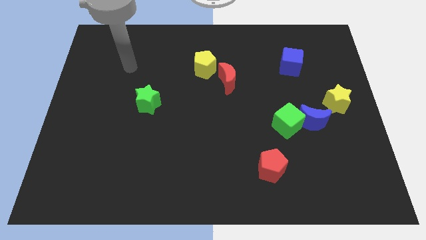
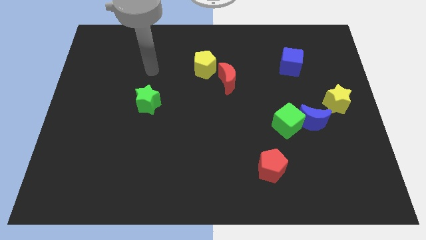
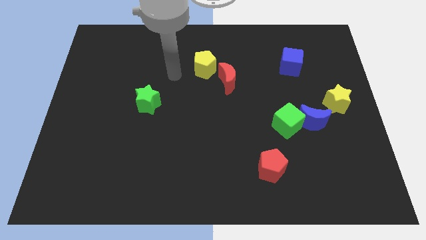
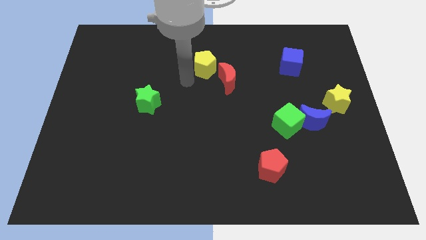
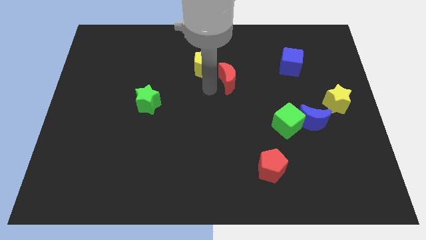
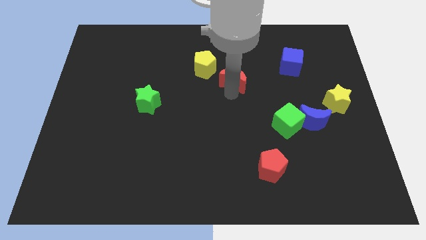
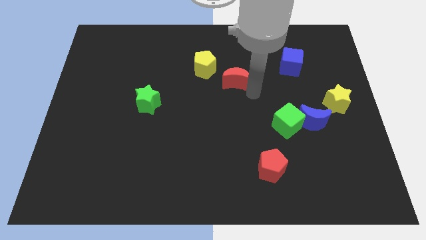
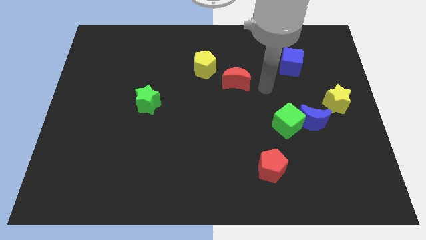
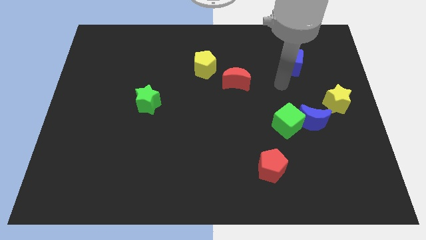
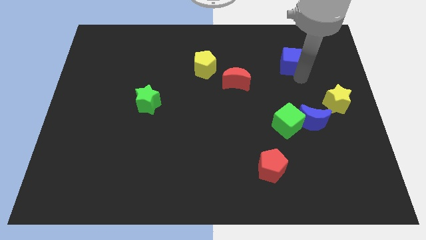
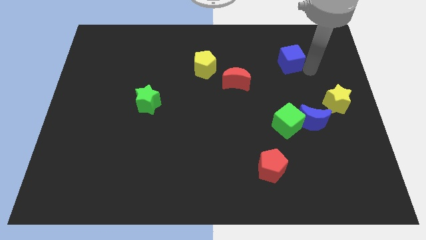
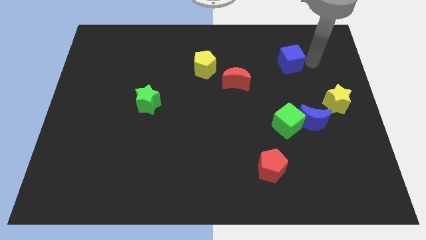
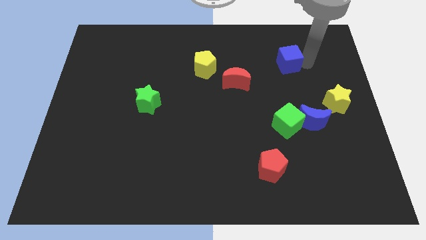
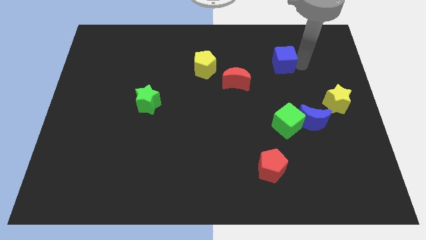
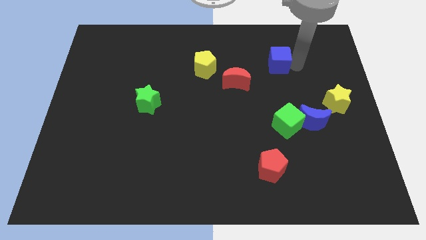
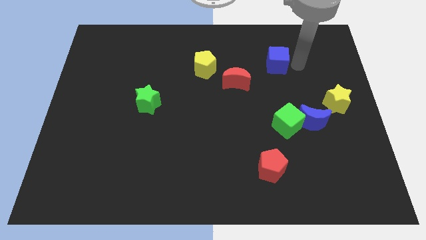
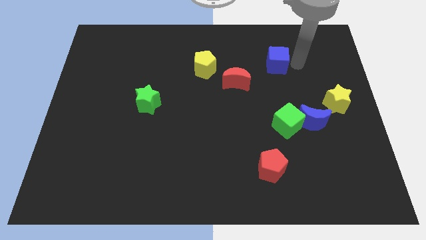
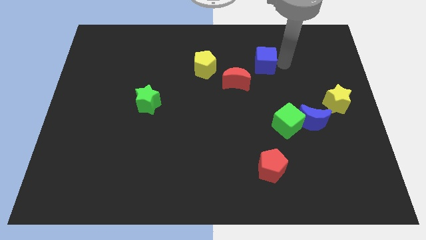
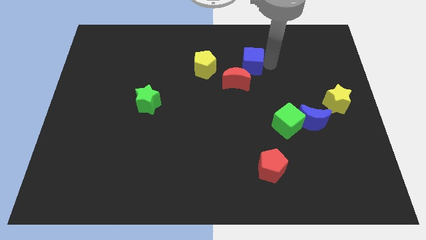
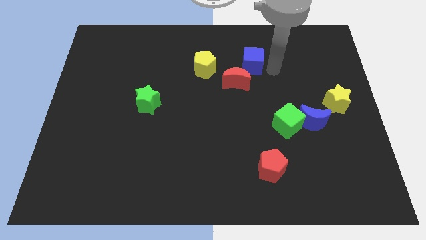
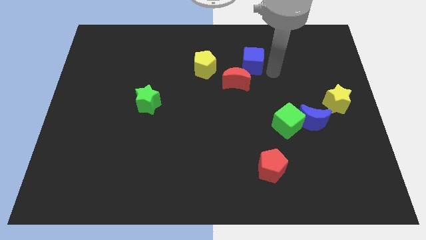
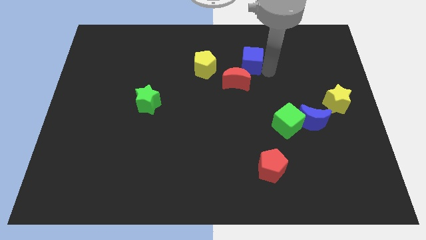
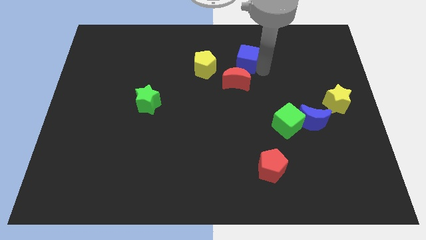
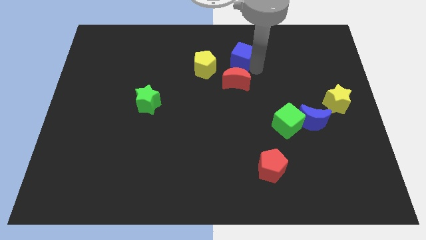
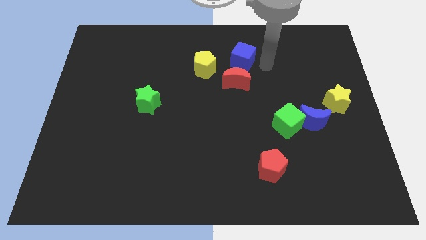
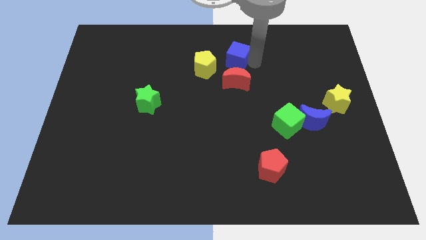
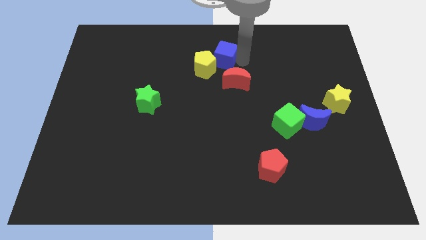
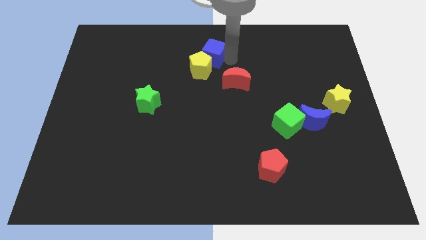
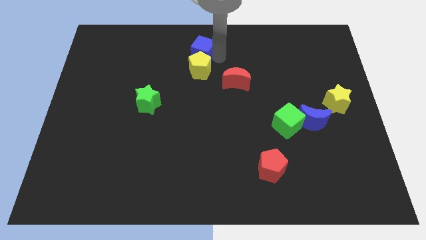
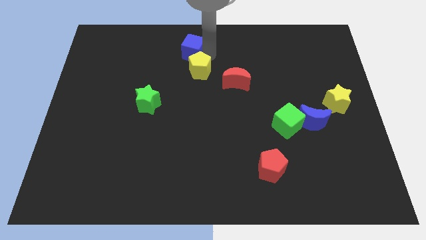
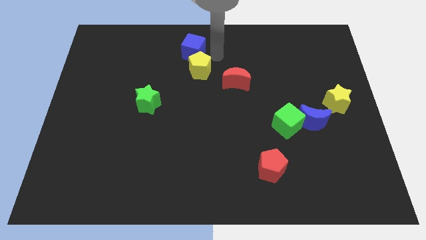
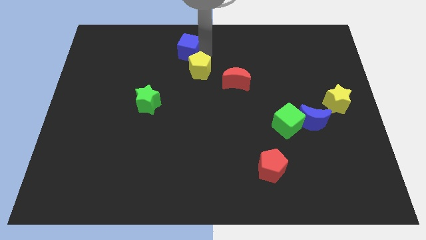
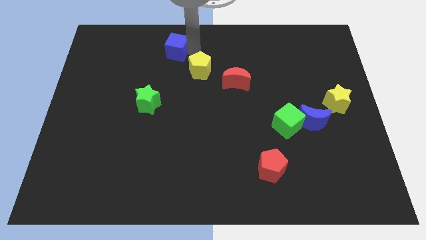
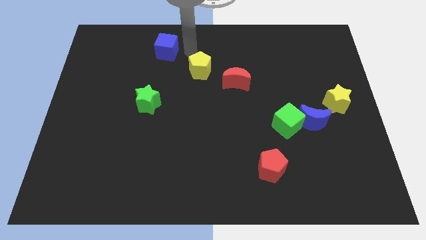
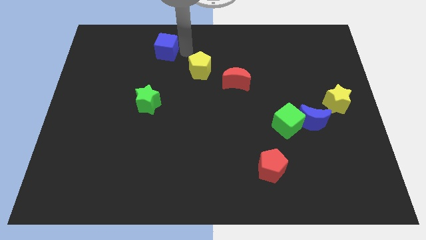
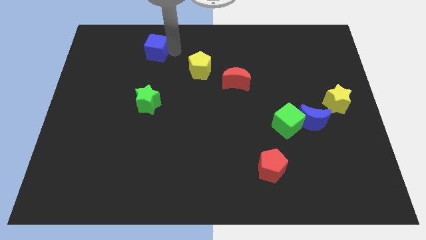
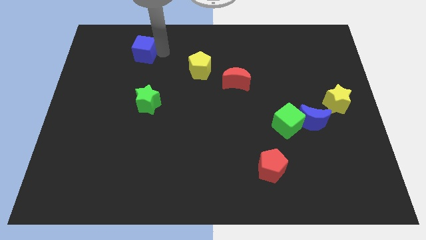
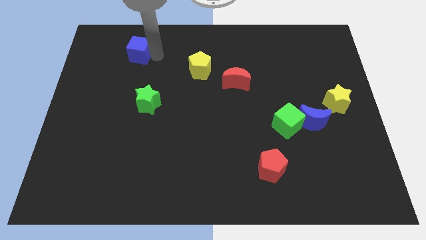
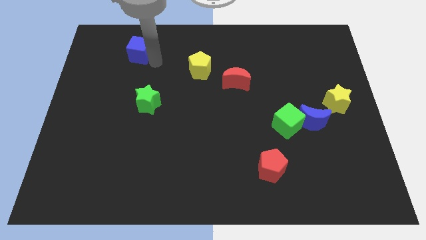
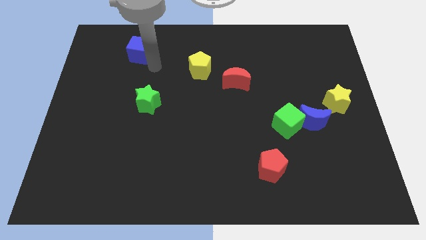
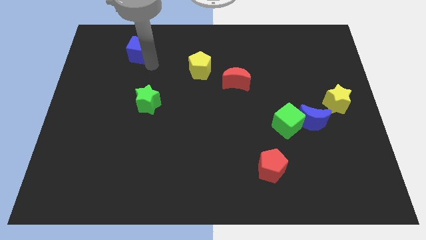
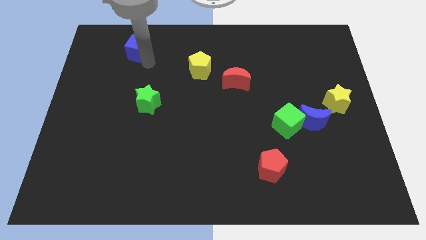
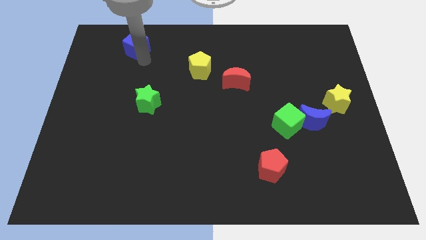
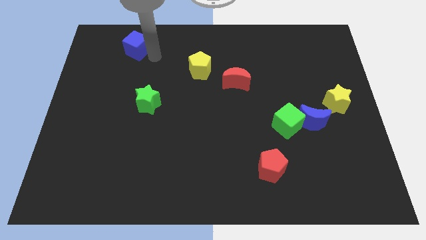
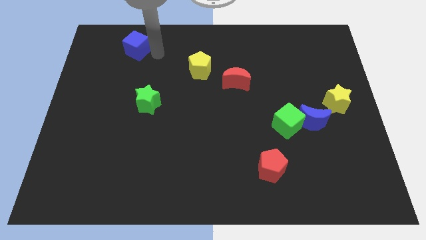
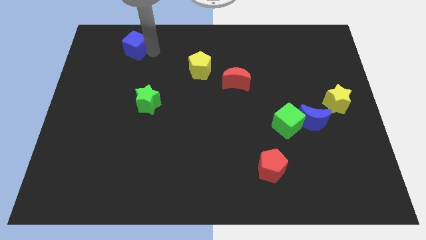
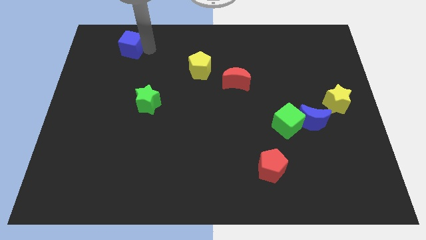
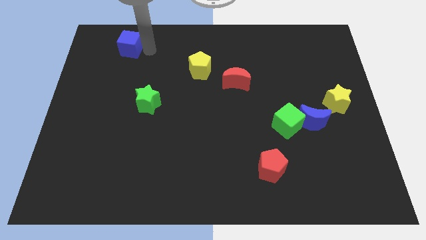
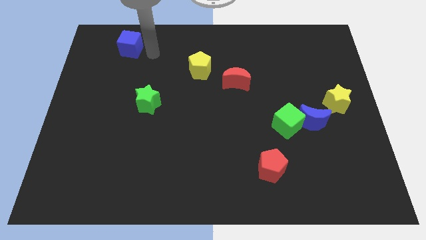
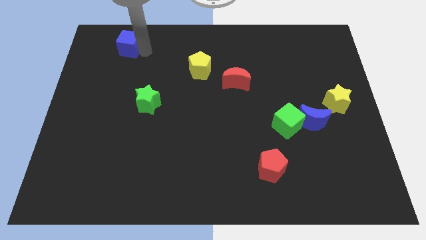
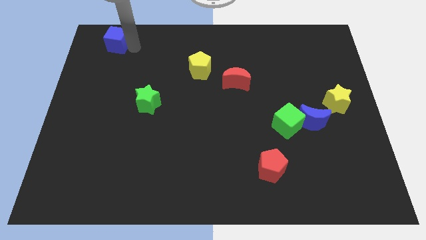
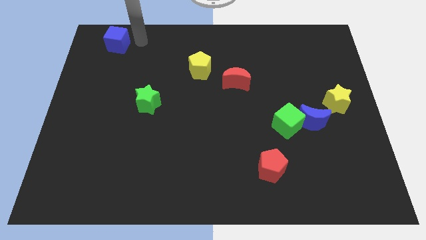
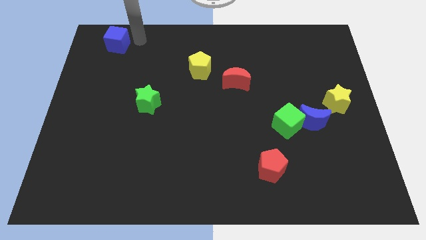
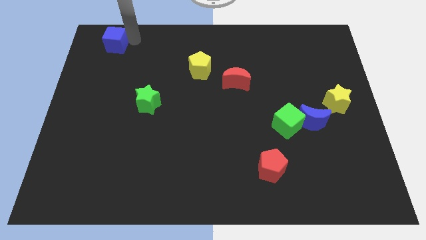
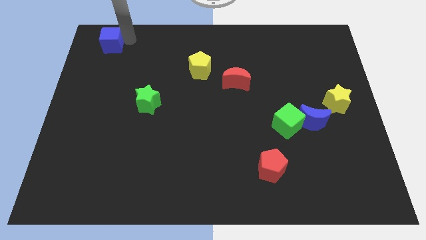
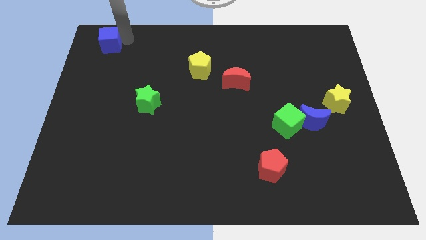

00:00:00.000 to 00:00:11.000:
slide the blue cube to the top left
